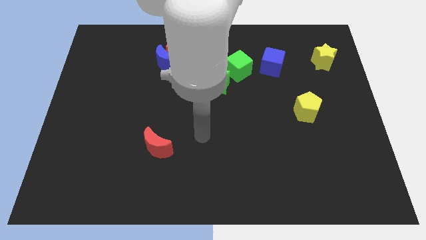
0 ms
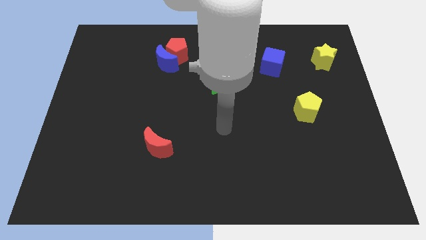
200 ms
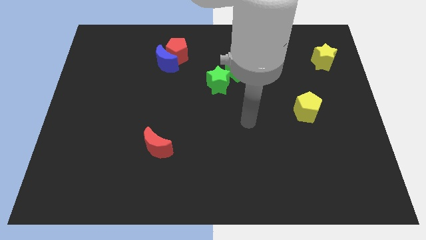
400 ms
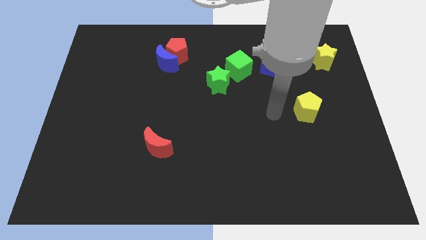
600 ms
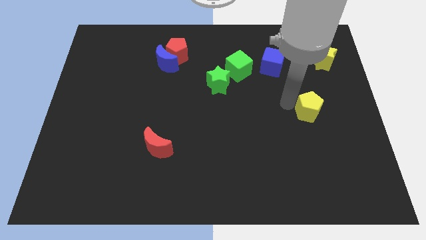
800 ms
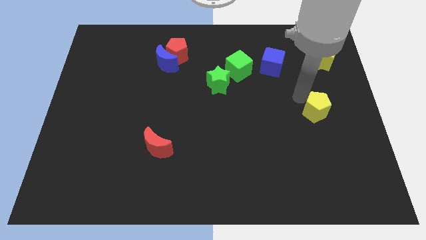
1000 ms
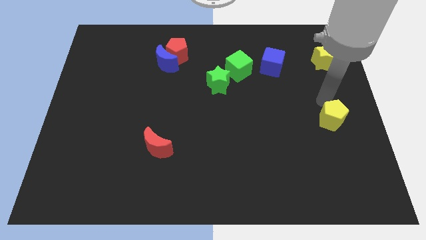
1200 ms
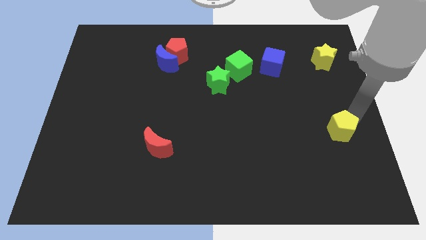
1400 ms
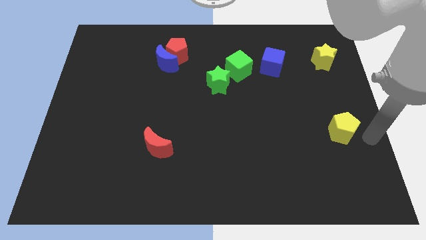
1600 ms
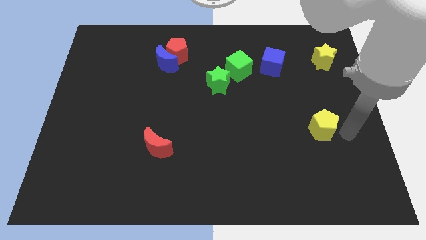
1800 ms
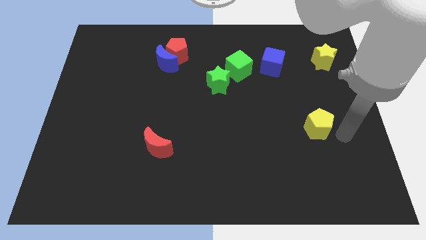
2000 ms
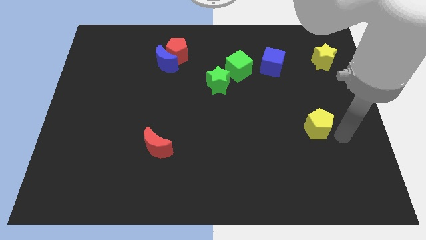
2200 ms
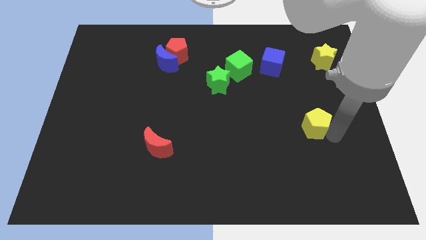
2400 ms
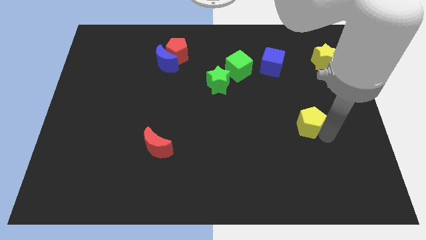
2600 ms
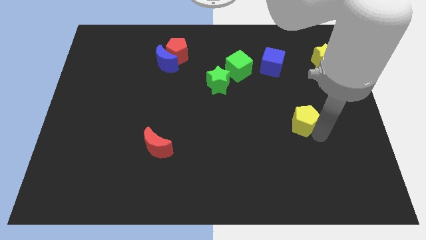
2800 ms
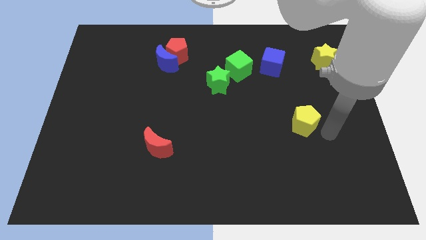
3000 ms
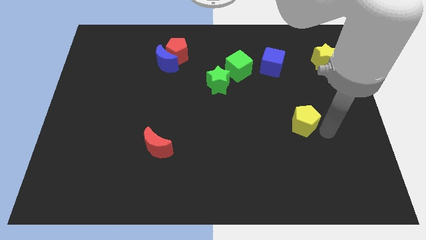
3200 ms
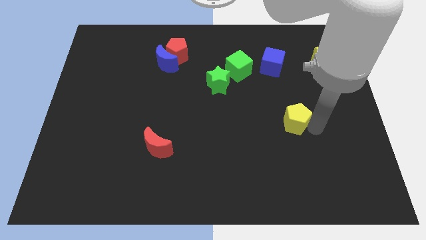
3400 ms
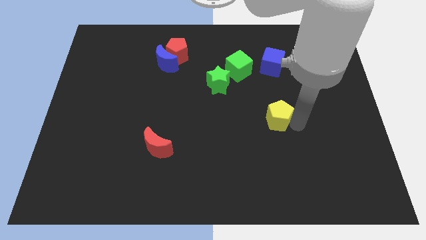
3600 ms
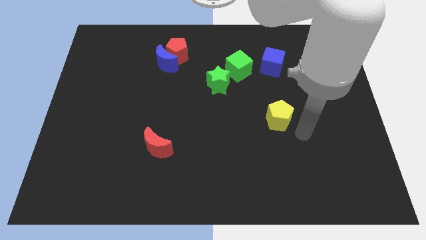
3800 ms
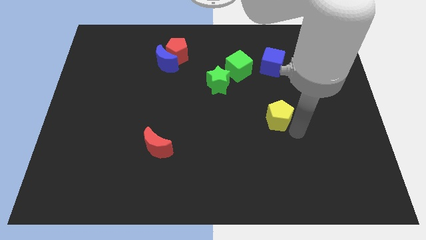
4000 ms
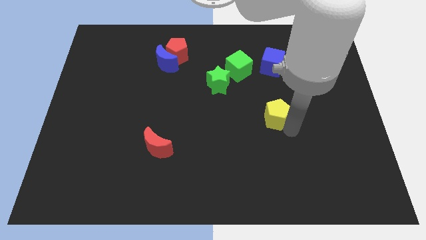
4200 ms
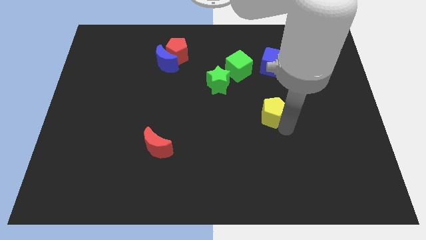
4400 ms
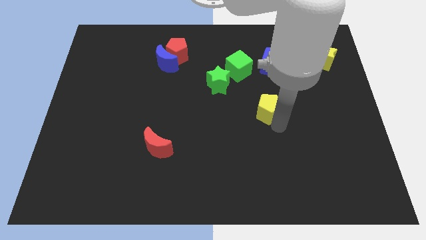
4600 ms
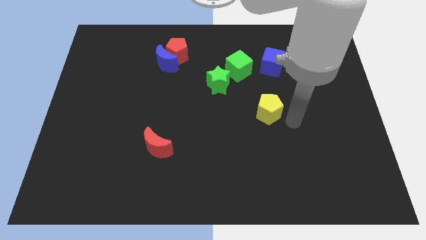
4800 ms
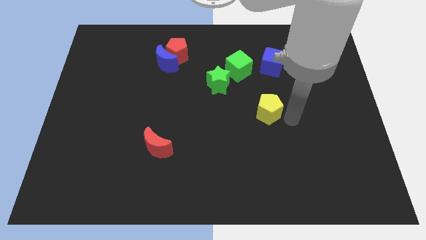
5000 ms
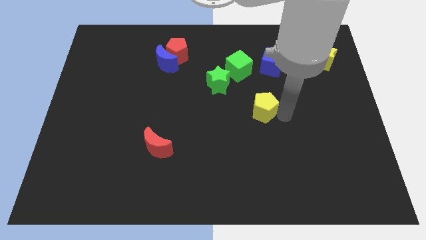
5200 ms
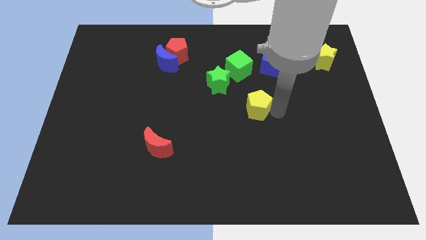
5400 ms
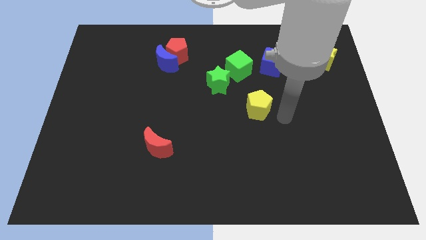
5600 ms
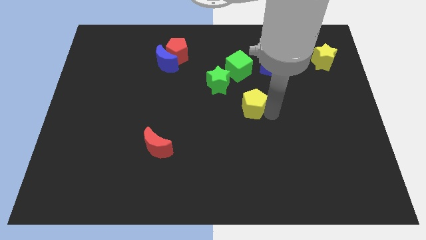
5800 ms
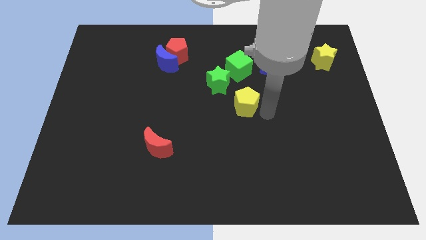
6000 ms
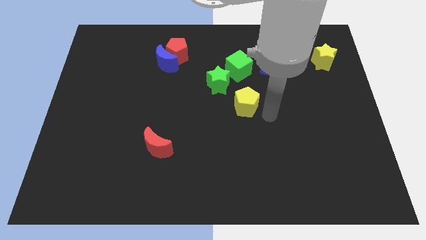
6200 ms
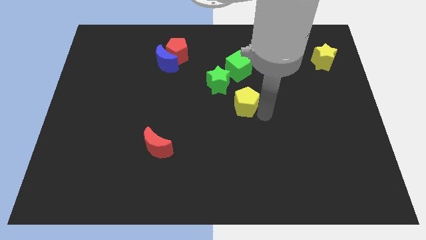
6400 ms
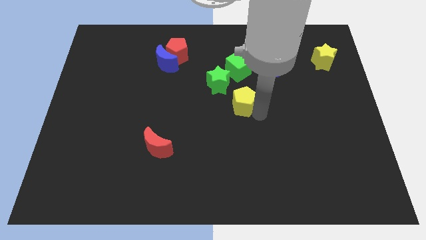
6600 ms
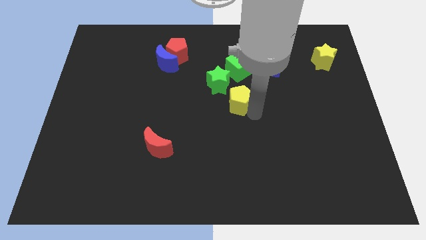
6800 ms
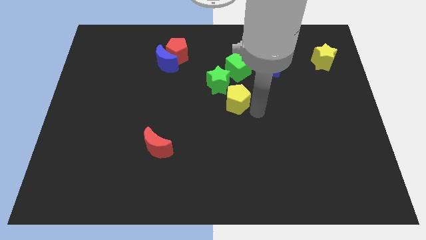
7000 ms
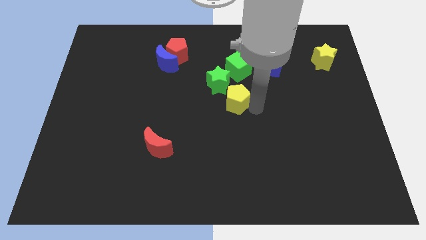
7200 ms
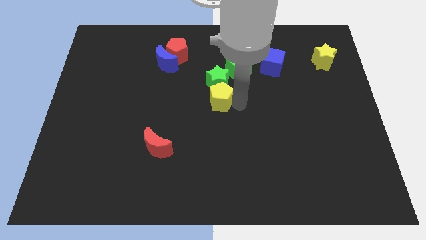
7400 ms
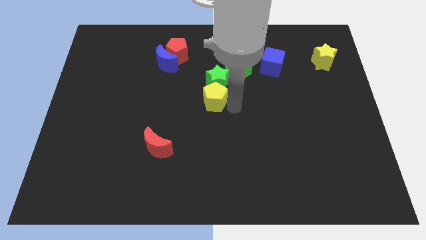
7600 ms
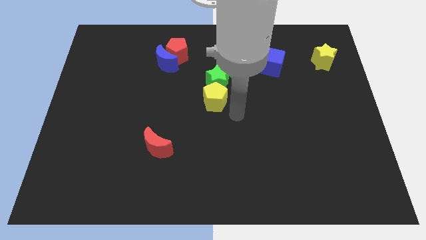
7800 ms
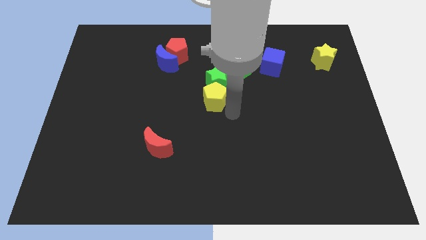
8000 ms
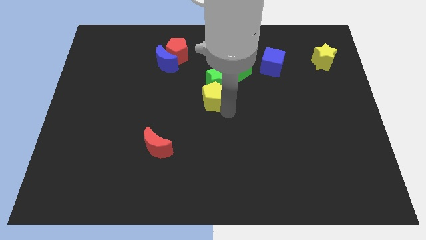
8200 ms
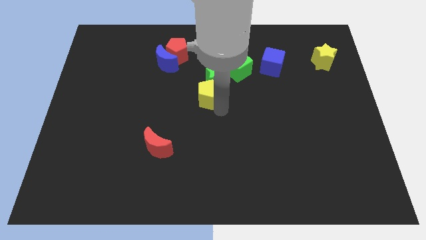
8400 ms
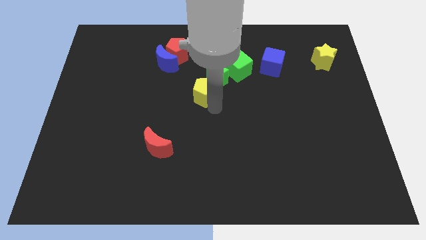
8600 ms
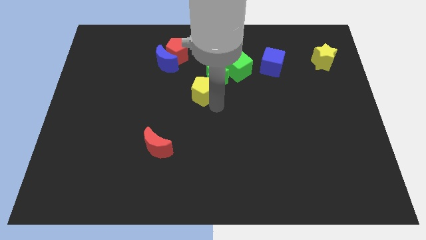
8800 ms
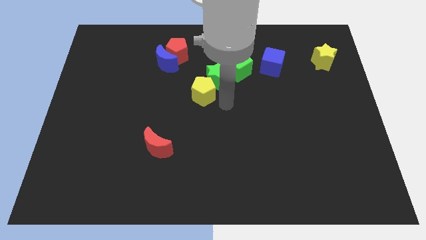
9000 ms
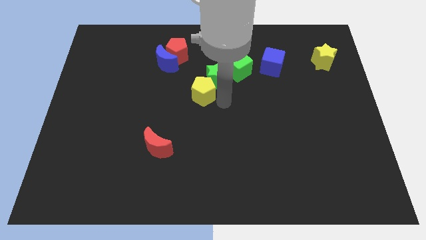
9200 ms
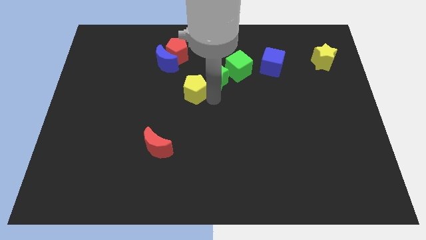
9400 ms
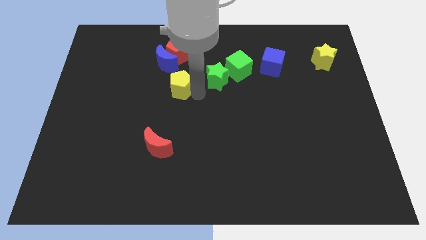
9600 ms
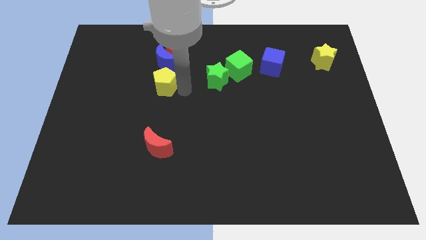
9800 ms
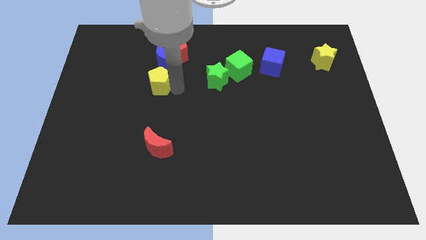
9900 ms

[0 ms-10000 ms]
slide the yellow pentagon to the bottom left side of the blue moon

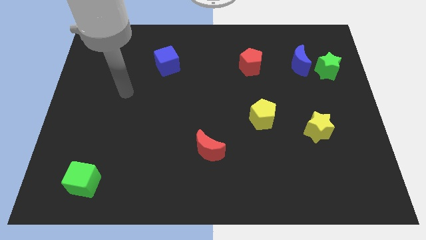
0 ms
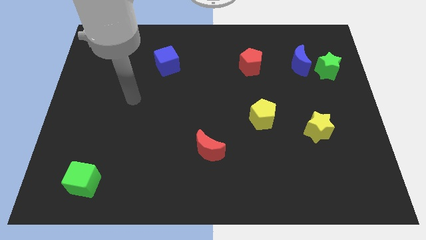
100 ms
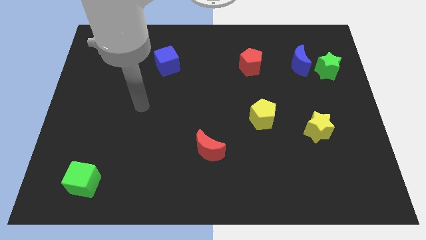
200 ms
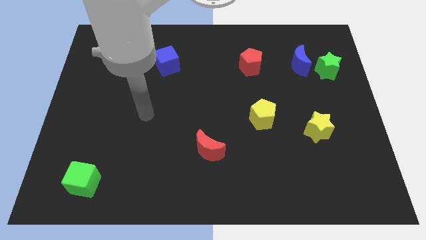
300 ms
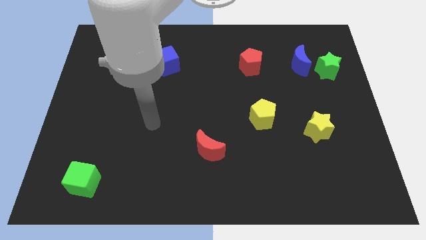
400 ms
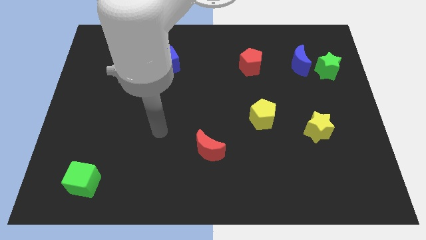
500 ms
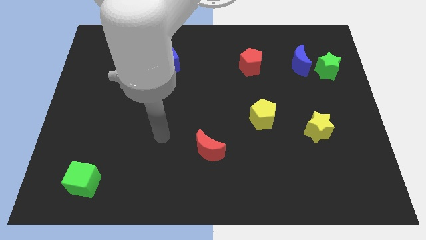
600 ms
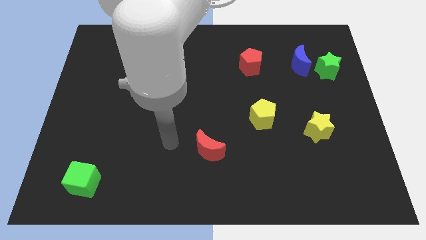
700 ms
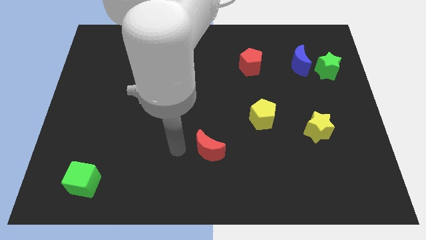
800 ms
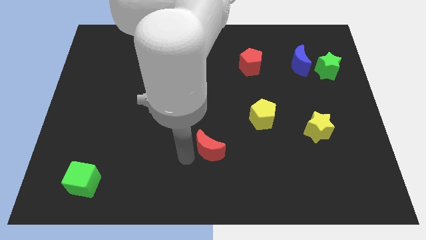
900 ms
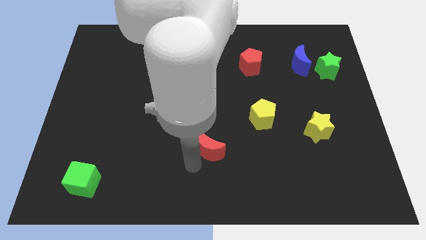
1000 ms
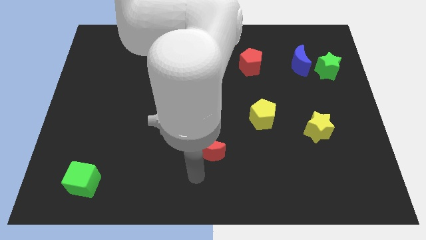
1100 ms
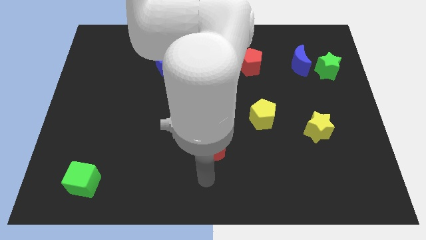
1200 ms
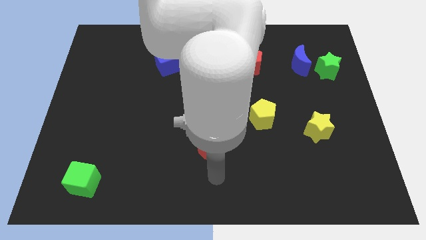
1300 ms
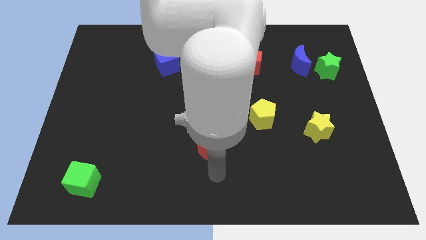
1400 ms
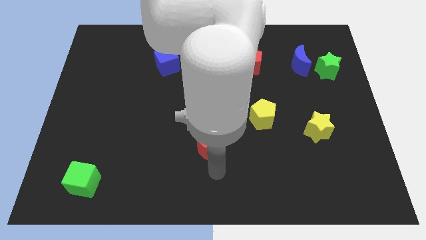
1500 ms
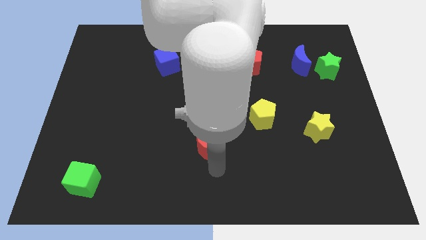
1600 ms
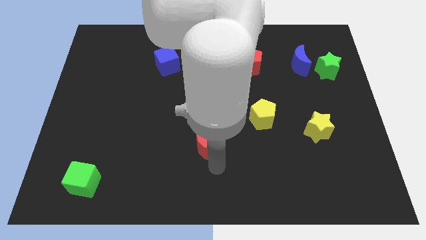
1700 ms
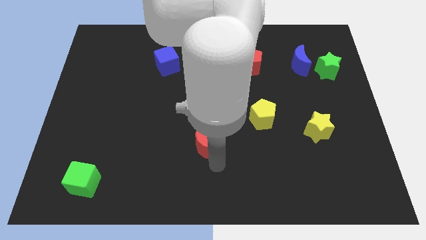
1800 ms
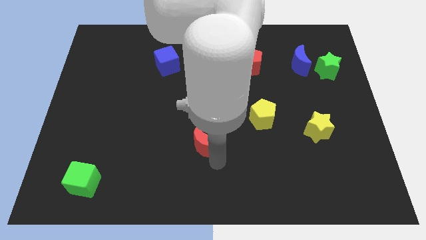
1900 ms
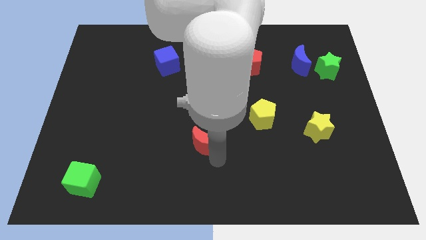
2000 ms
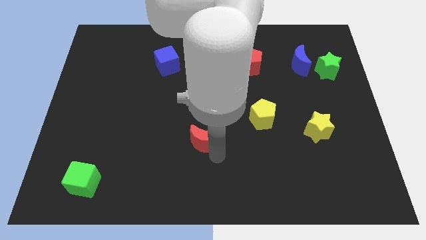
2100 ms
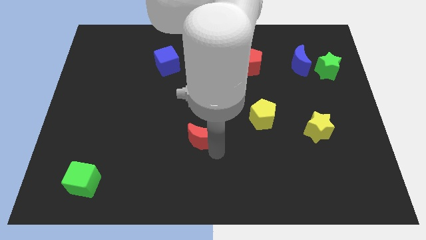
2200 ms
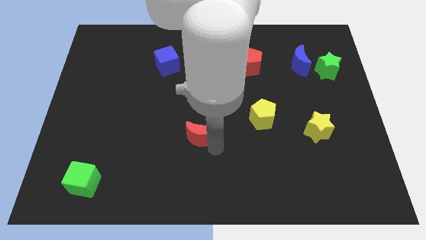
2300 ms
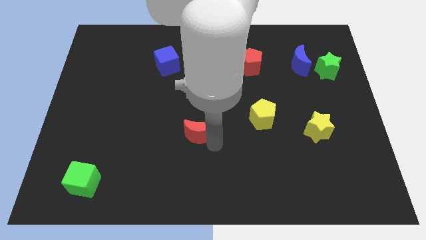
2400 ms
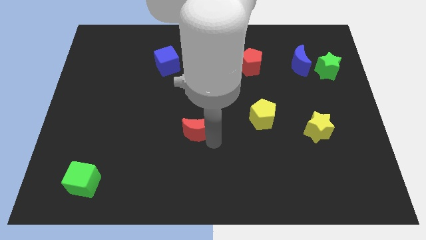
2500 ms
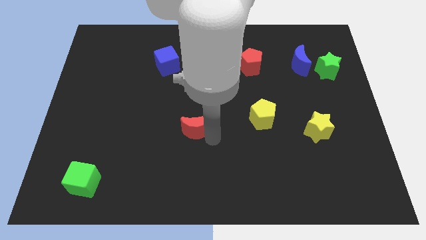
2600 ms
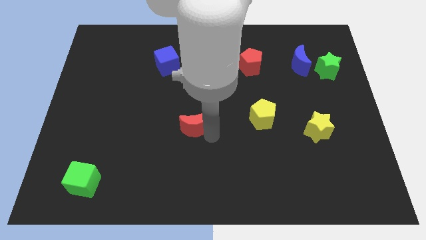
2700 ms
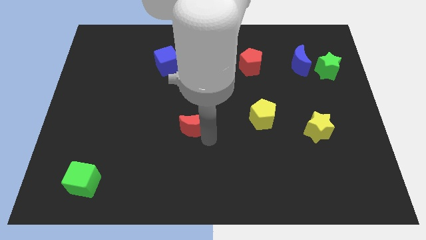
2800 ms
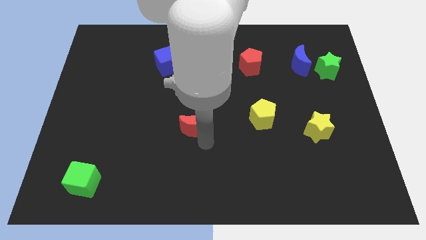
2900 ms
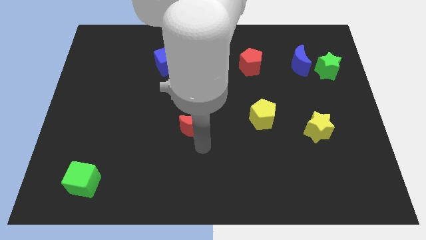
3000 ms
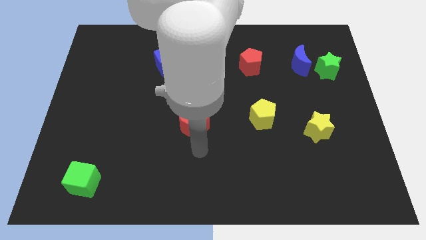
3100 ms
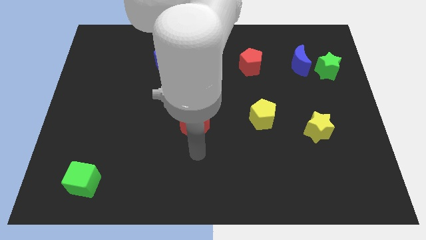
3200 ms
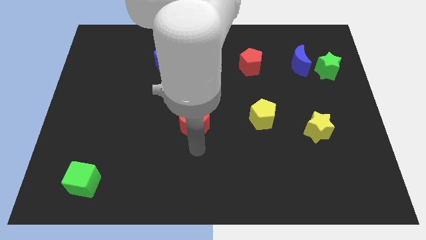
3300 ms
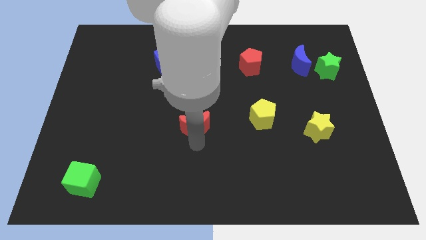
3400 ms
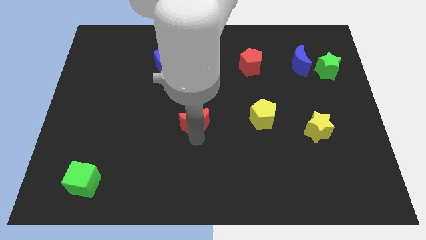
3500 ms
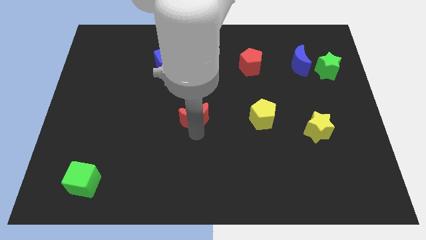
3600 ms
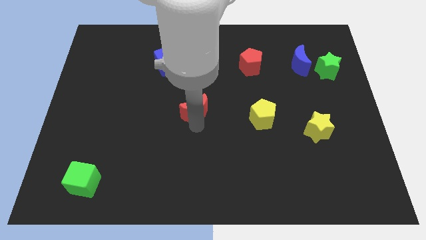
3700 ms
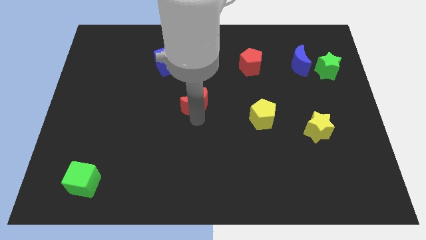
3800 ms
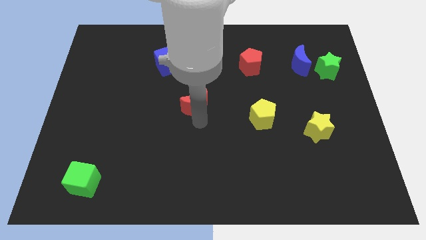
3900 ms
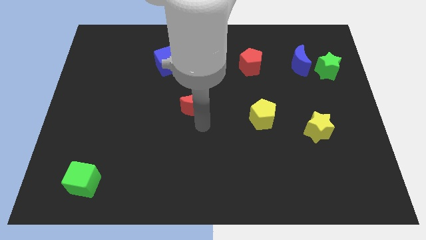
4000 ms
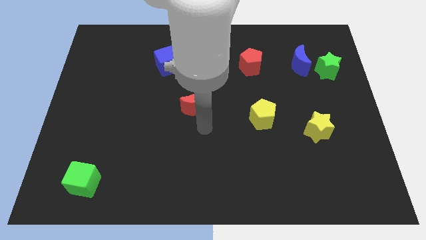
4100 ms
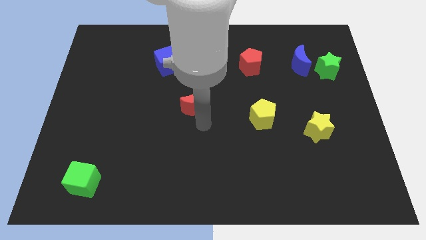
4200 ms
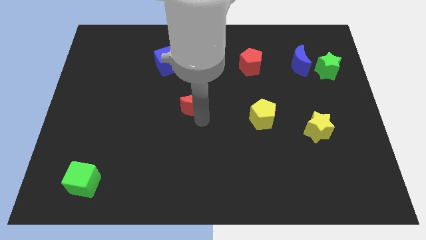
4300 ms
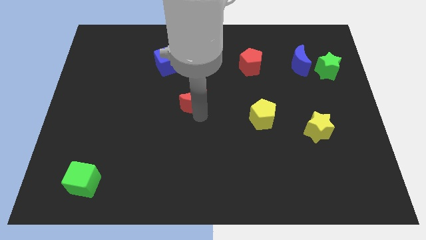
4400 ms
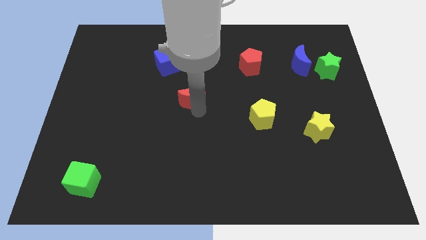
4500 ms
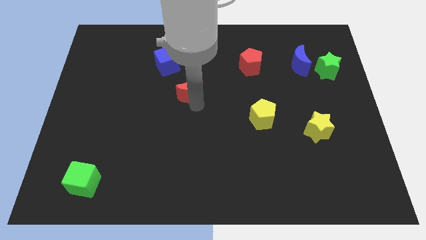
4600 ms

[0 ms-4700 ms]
slide the red moon diagonally down and to the right of the blue cube
